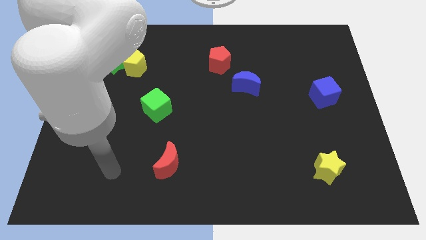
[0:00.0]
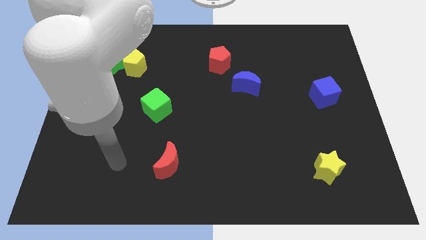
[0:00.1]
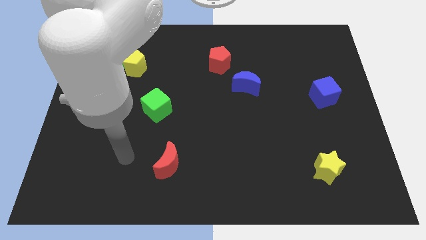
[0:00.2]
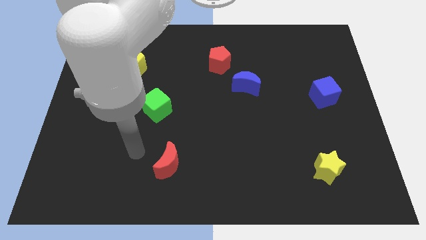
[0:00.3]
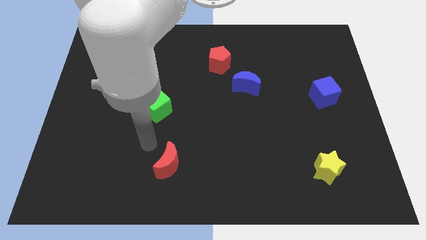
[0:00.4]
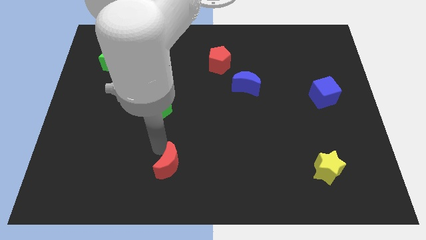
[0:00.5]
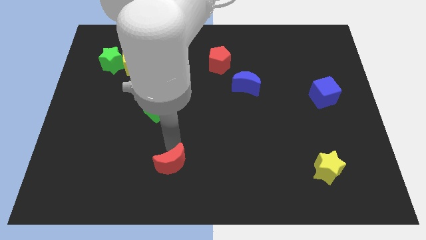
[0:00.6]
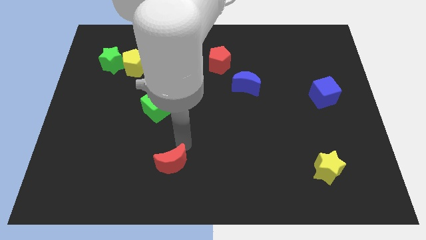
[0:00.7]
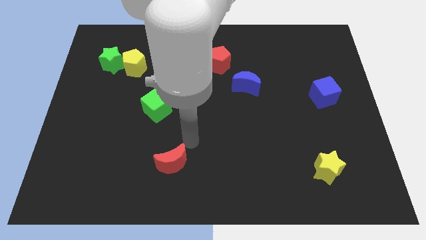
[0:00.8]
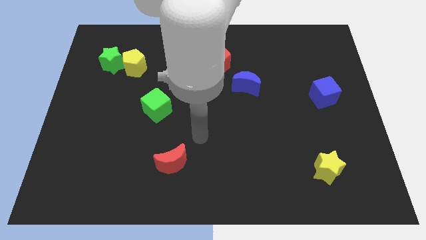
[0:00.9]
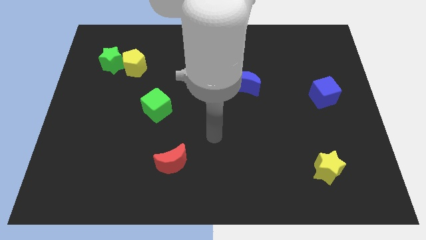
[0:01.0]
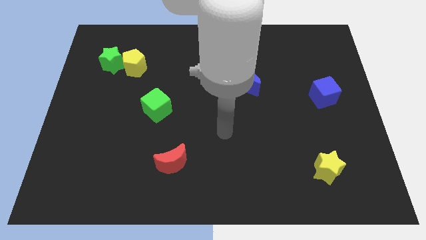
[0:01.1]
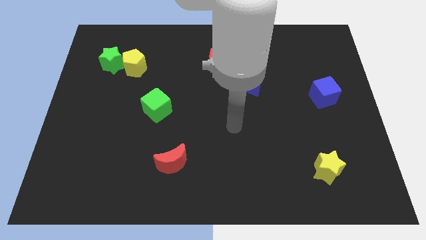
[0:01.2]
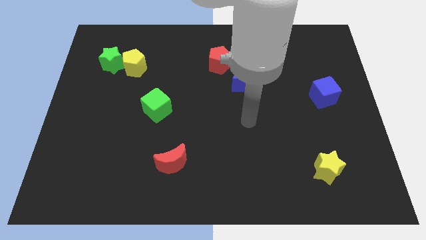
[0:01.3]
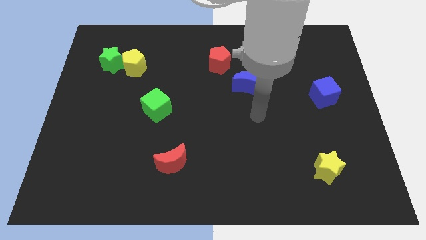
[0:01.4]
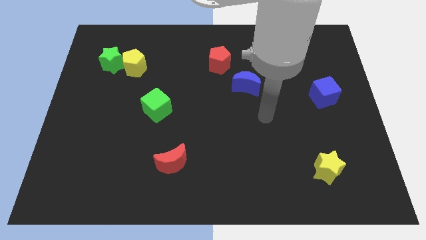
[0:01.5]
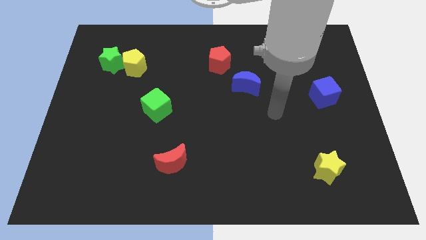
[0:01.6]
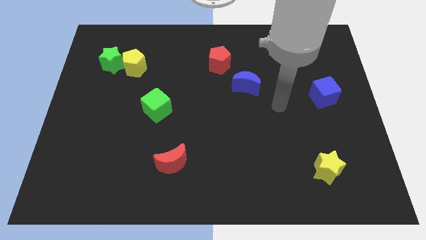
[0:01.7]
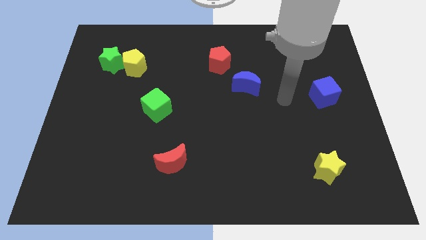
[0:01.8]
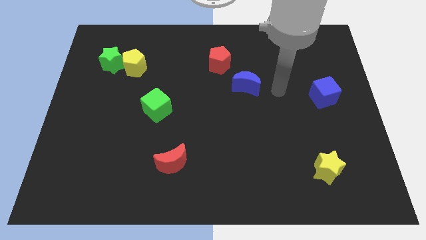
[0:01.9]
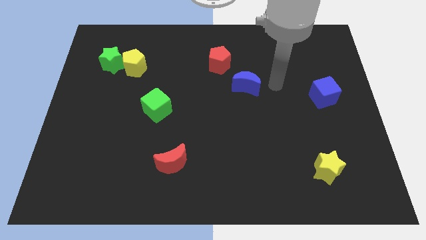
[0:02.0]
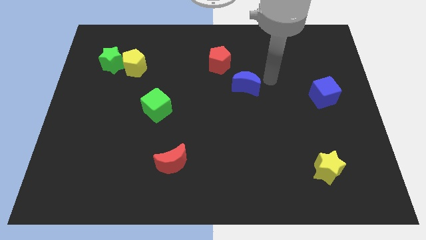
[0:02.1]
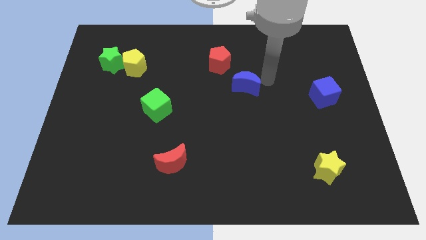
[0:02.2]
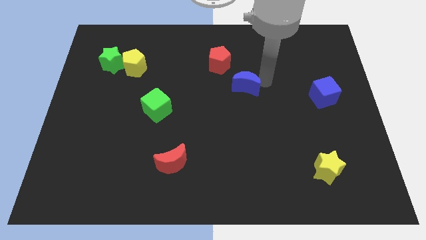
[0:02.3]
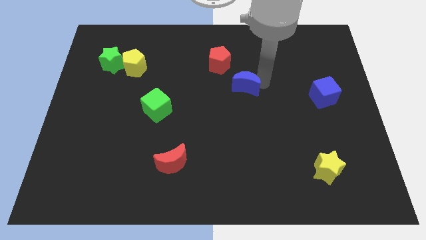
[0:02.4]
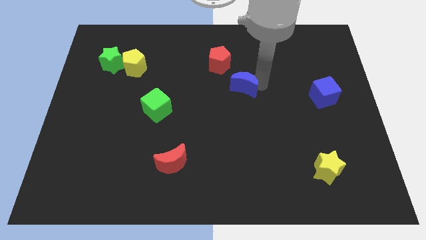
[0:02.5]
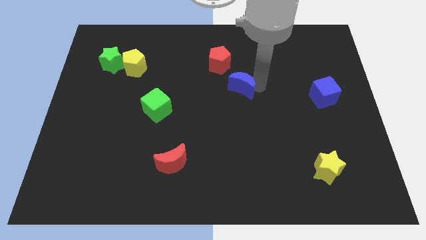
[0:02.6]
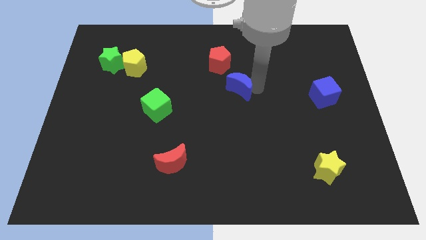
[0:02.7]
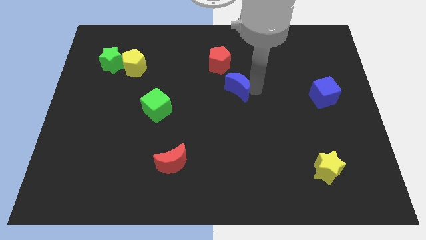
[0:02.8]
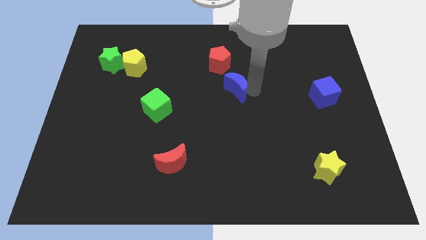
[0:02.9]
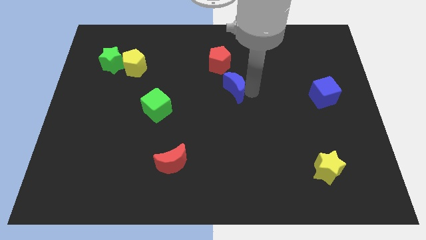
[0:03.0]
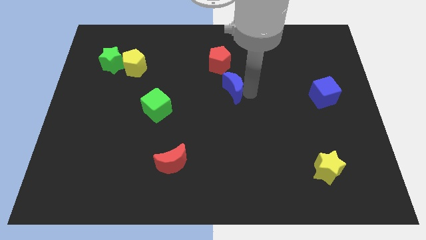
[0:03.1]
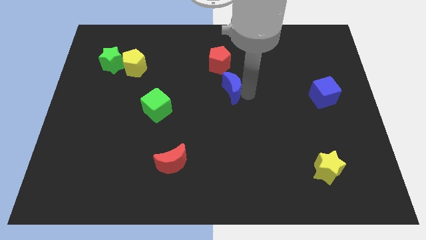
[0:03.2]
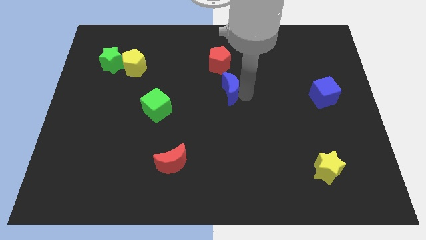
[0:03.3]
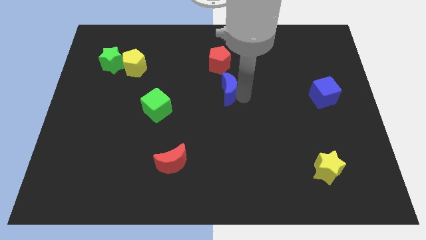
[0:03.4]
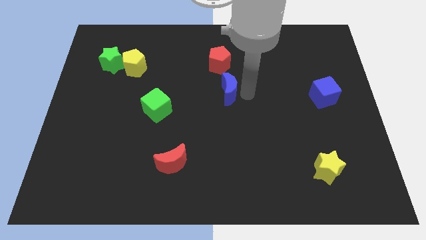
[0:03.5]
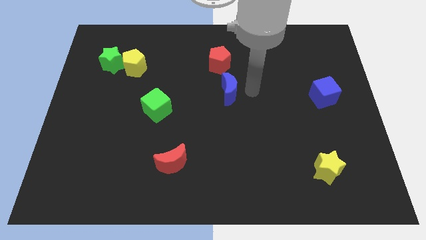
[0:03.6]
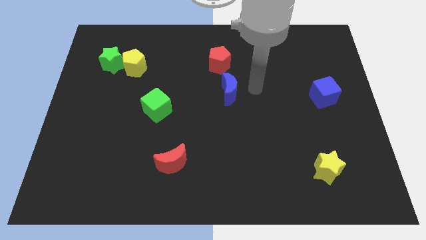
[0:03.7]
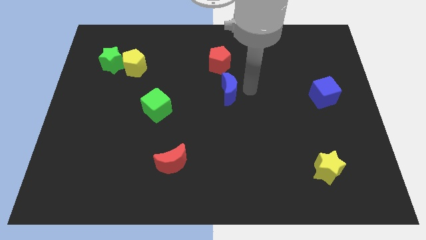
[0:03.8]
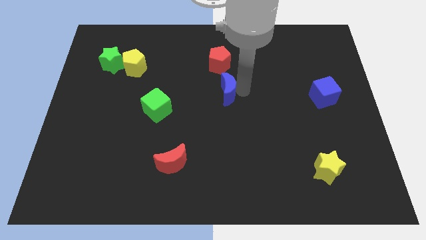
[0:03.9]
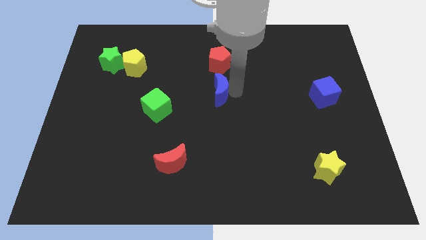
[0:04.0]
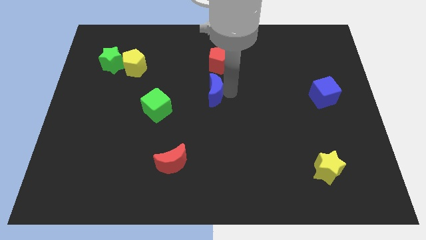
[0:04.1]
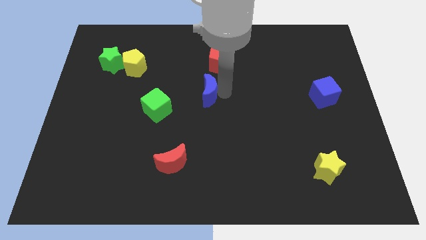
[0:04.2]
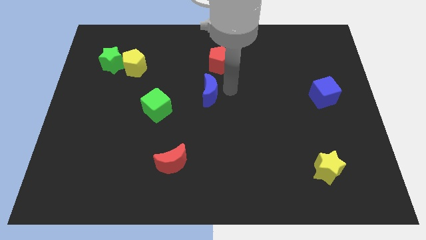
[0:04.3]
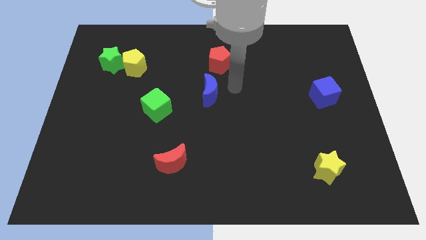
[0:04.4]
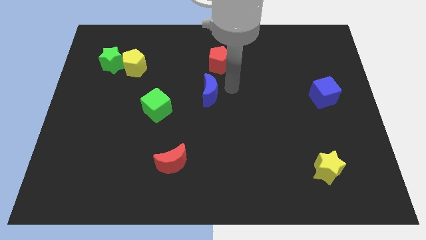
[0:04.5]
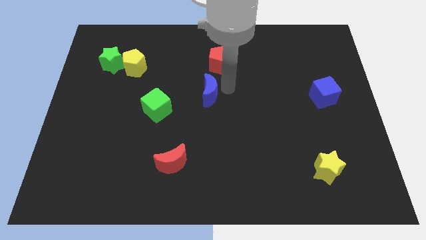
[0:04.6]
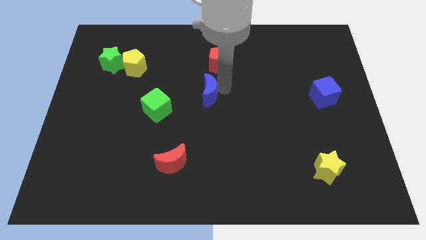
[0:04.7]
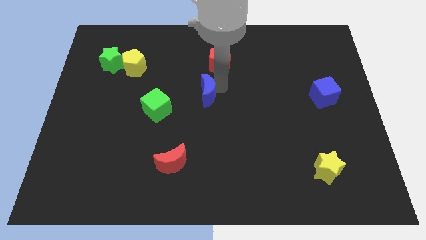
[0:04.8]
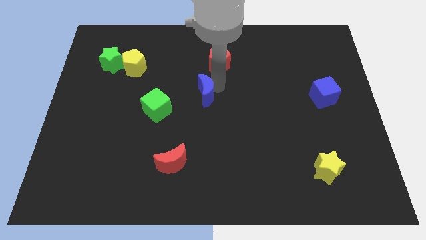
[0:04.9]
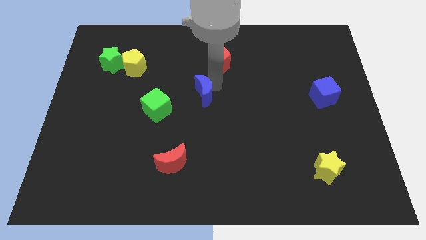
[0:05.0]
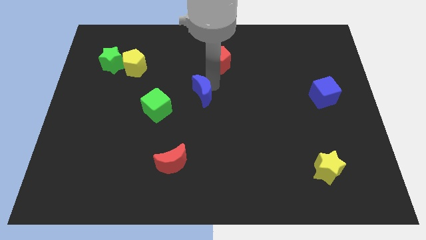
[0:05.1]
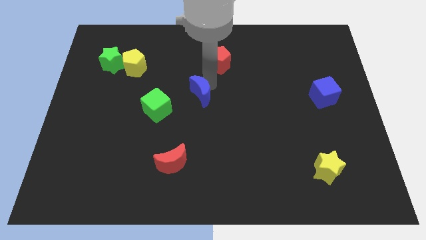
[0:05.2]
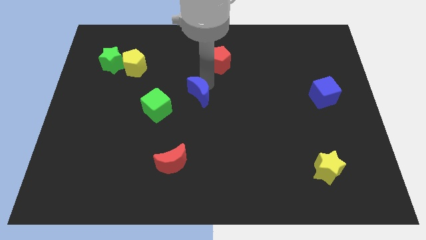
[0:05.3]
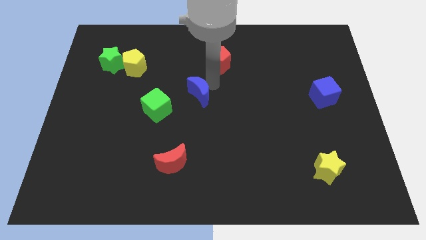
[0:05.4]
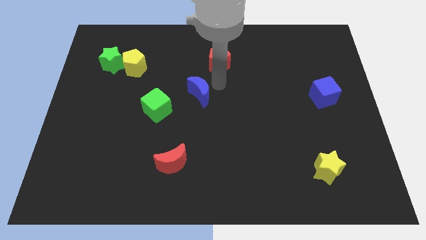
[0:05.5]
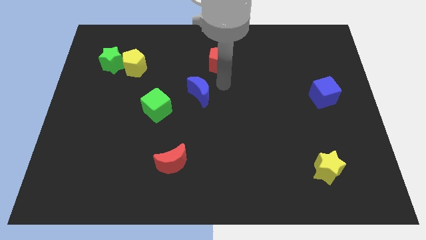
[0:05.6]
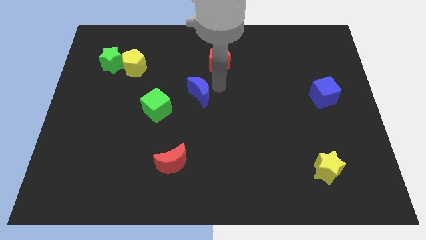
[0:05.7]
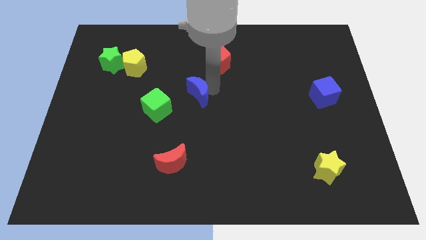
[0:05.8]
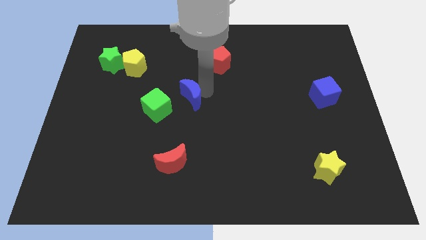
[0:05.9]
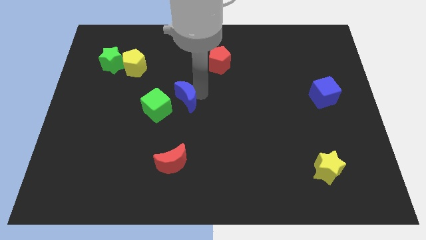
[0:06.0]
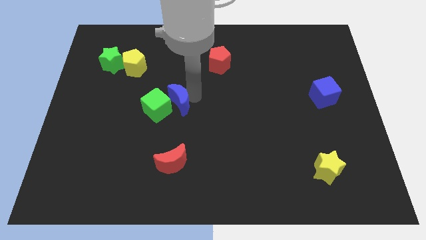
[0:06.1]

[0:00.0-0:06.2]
slide the blue moon close to the green cube

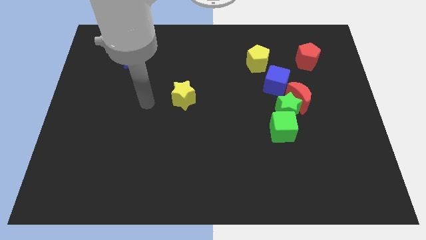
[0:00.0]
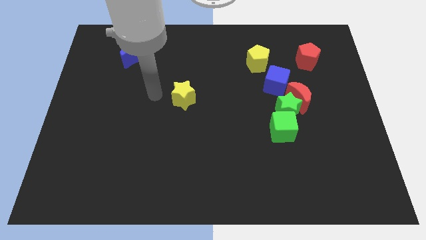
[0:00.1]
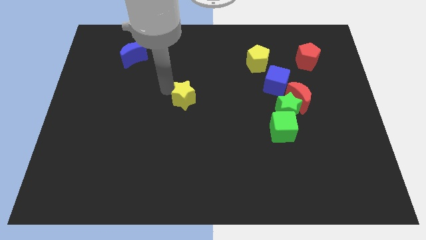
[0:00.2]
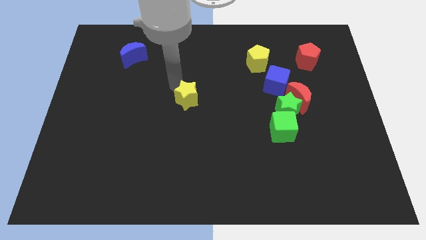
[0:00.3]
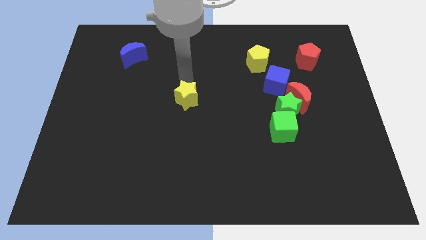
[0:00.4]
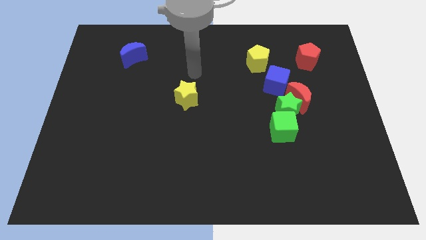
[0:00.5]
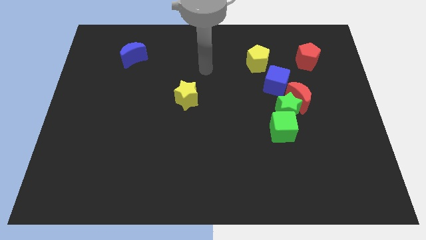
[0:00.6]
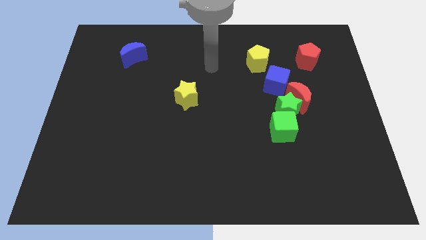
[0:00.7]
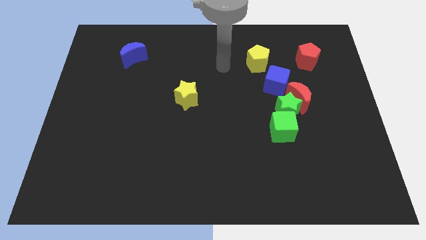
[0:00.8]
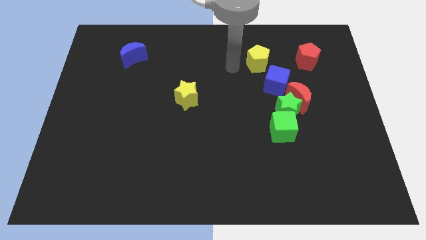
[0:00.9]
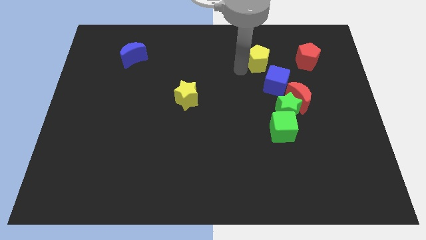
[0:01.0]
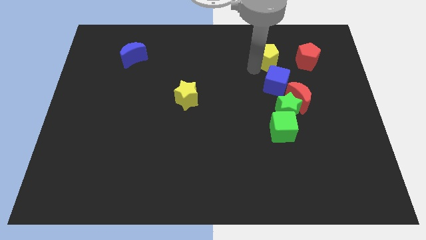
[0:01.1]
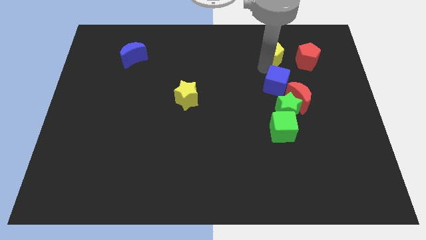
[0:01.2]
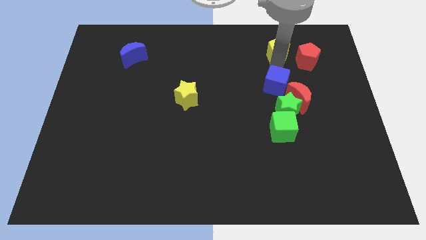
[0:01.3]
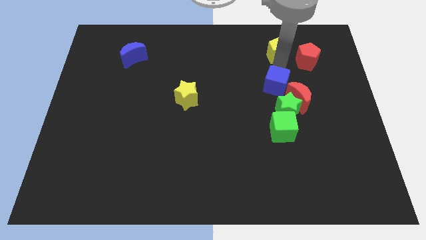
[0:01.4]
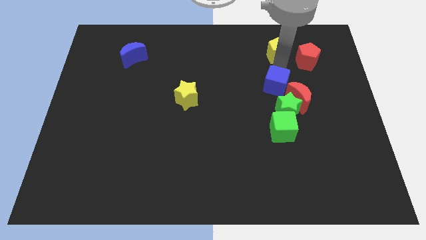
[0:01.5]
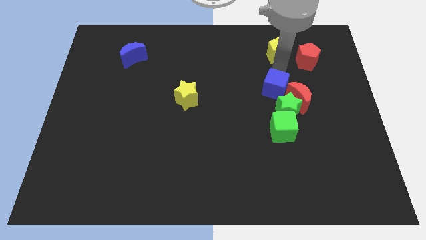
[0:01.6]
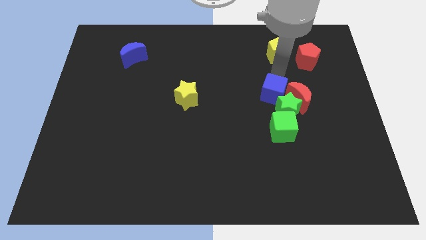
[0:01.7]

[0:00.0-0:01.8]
put the blue cube to the green star
